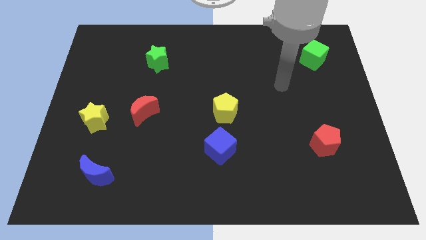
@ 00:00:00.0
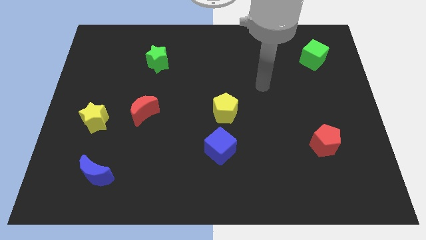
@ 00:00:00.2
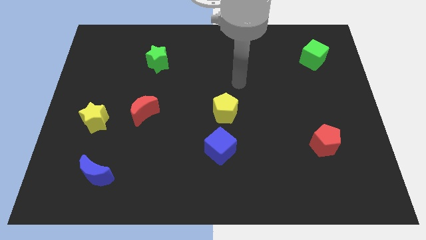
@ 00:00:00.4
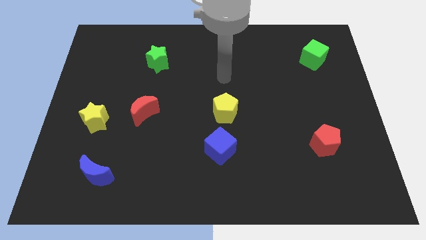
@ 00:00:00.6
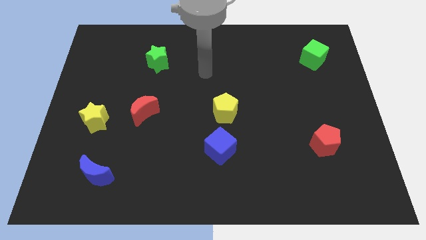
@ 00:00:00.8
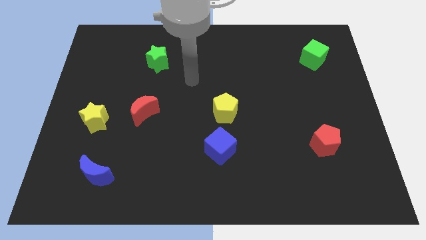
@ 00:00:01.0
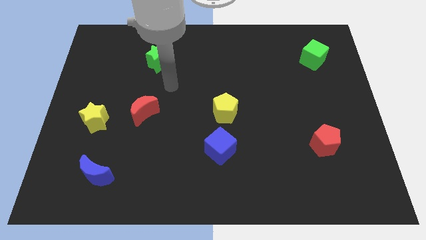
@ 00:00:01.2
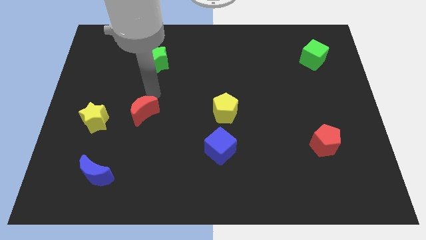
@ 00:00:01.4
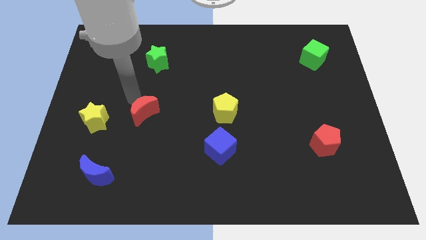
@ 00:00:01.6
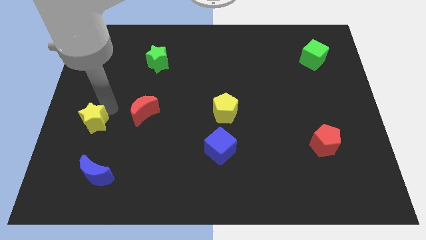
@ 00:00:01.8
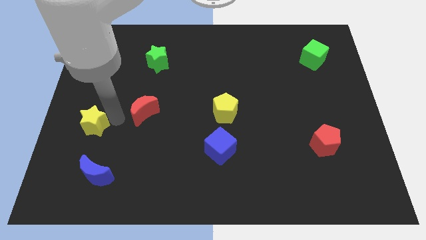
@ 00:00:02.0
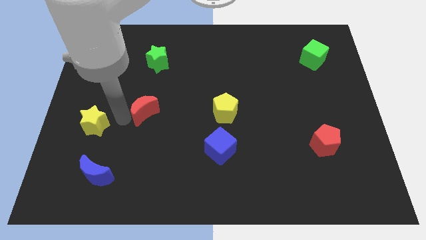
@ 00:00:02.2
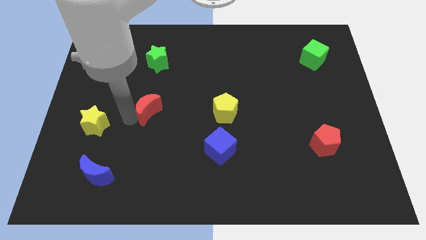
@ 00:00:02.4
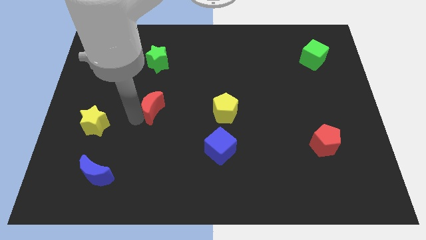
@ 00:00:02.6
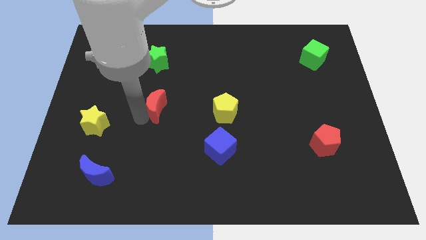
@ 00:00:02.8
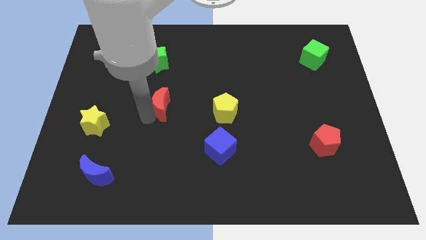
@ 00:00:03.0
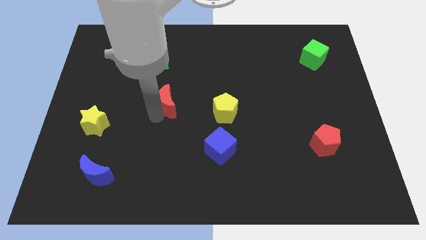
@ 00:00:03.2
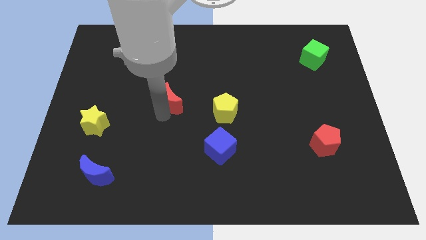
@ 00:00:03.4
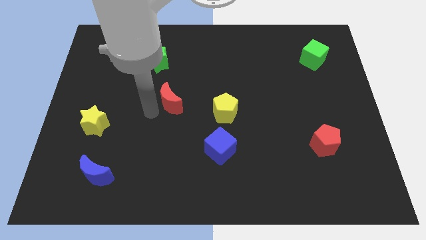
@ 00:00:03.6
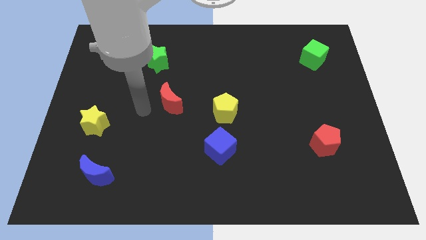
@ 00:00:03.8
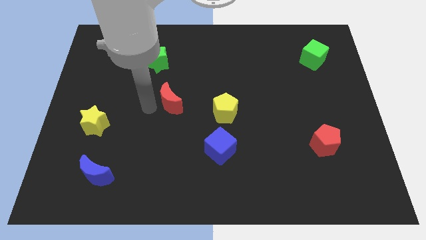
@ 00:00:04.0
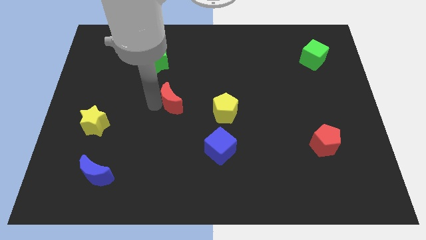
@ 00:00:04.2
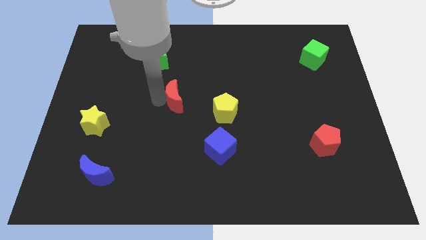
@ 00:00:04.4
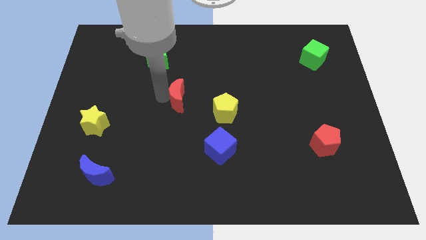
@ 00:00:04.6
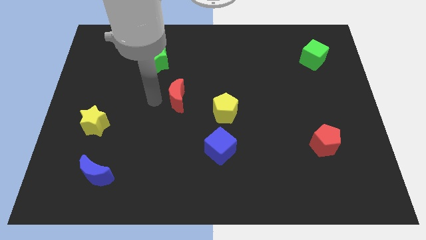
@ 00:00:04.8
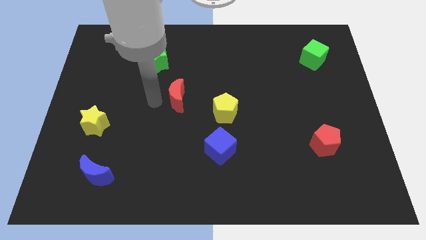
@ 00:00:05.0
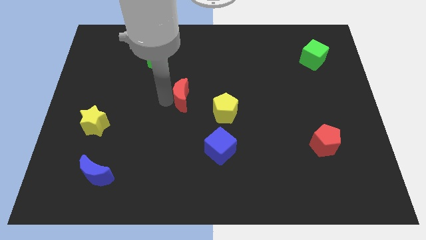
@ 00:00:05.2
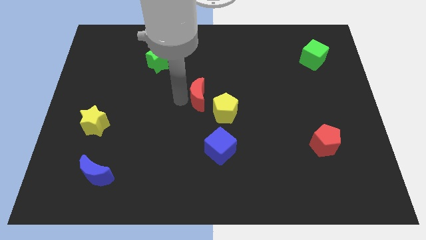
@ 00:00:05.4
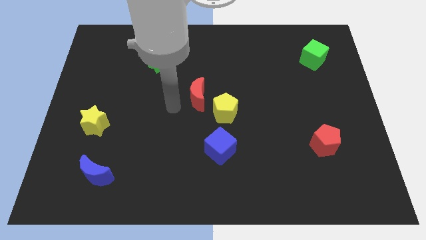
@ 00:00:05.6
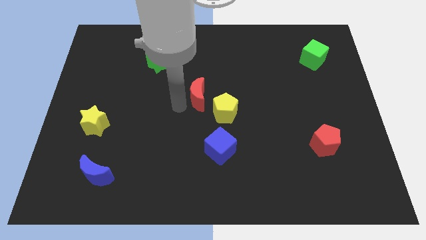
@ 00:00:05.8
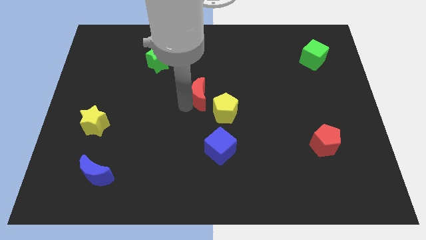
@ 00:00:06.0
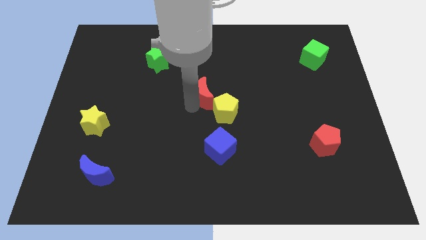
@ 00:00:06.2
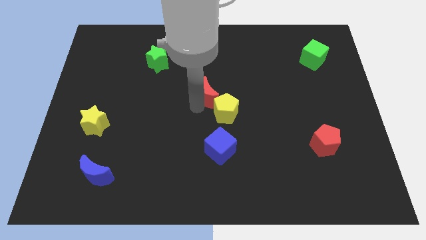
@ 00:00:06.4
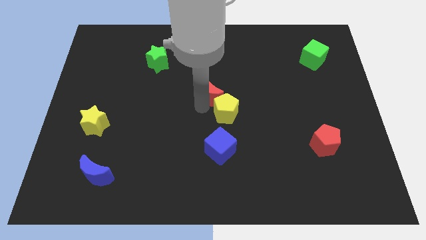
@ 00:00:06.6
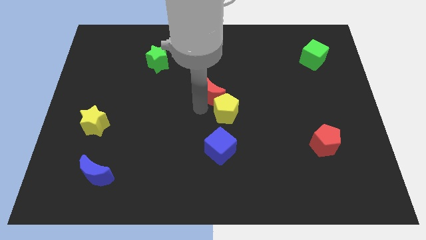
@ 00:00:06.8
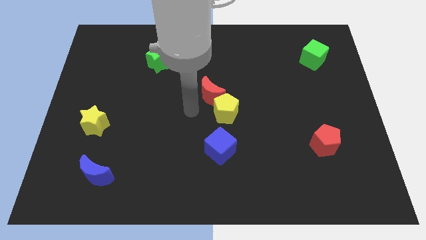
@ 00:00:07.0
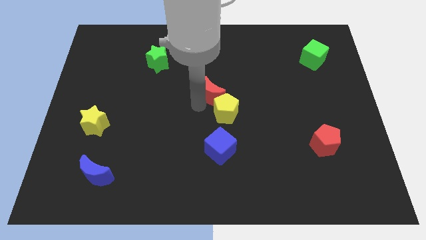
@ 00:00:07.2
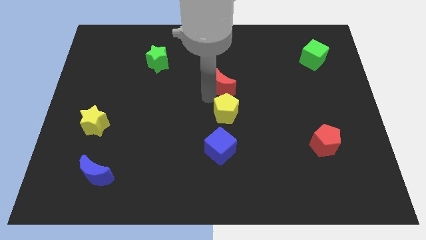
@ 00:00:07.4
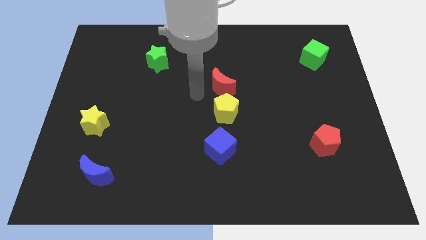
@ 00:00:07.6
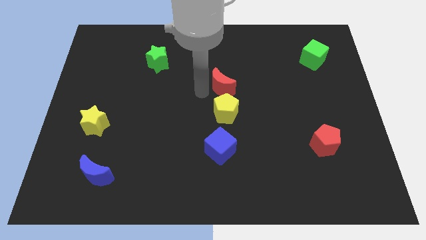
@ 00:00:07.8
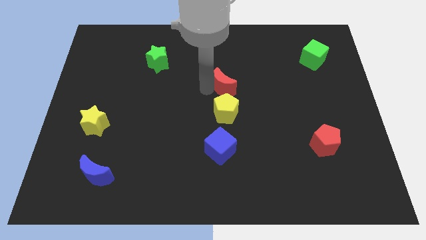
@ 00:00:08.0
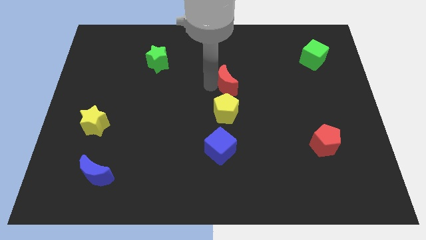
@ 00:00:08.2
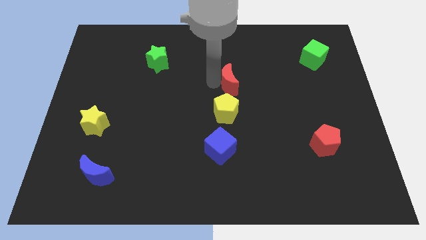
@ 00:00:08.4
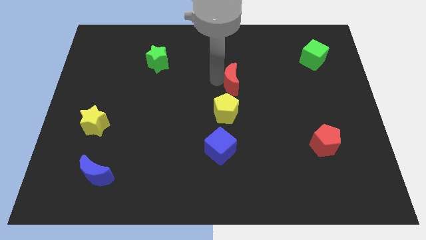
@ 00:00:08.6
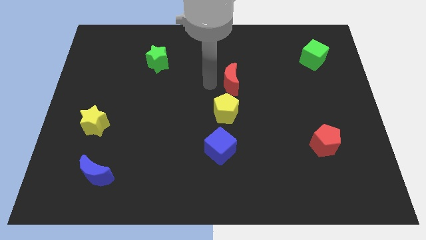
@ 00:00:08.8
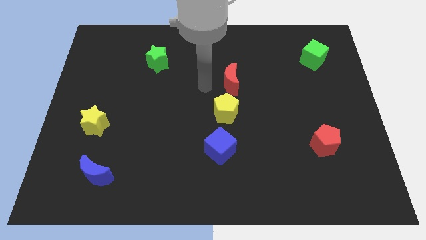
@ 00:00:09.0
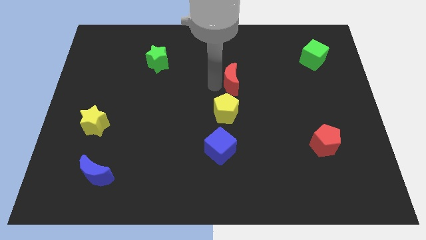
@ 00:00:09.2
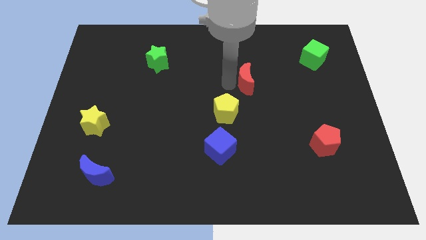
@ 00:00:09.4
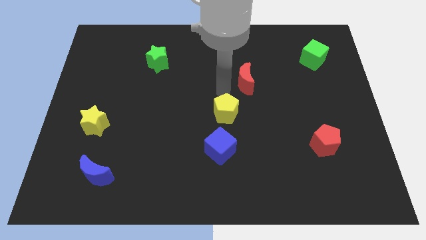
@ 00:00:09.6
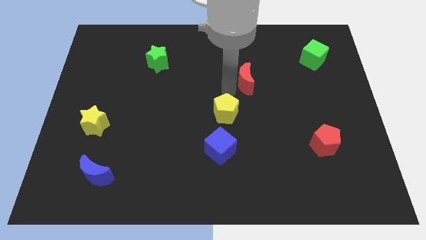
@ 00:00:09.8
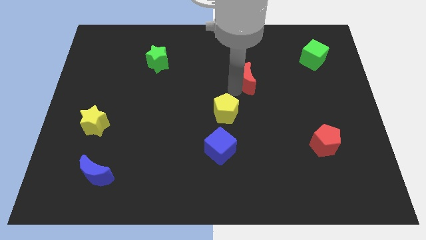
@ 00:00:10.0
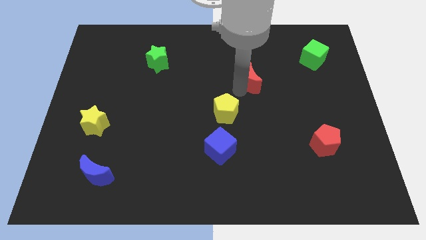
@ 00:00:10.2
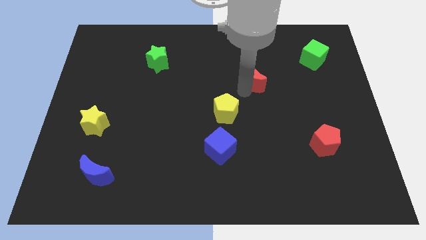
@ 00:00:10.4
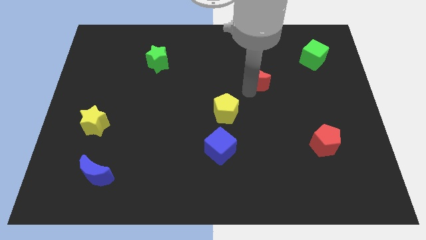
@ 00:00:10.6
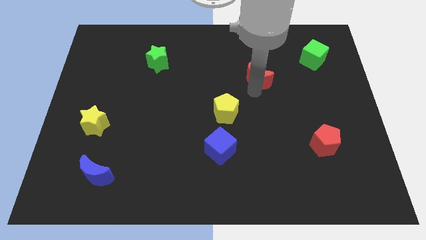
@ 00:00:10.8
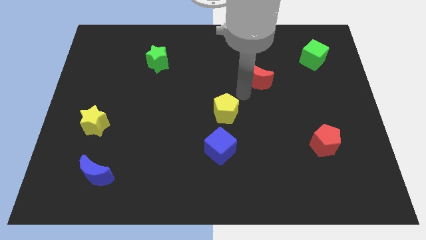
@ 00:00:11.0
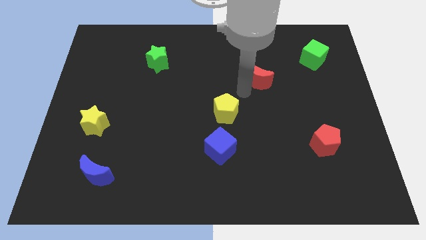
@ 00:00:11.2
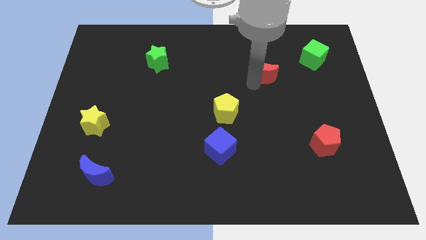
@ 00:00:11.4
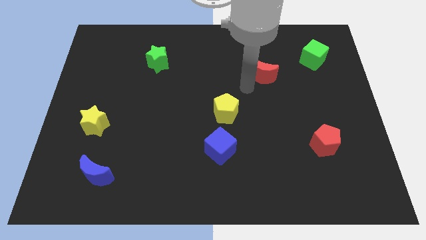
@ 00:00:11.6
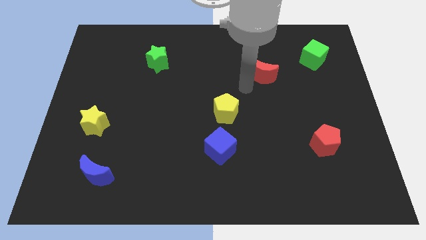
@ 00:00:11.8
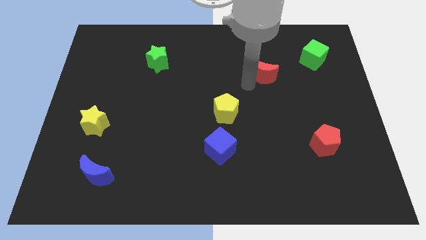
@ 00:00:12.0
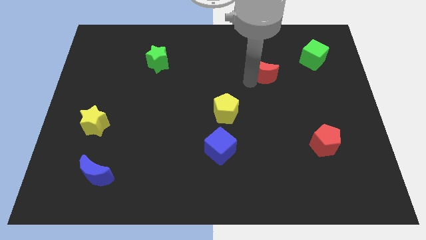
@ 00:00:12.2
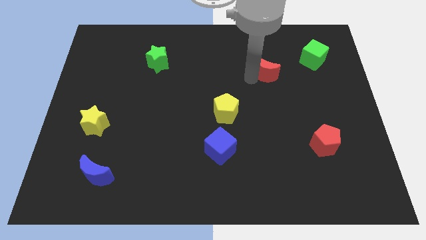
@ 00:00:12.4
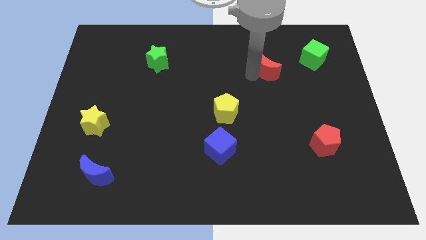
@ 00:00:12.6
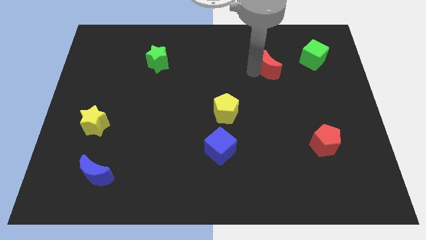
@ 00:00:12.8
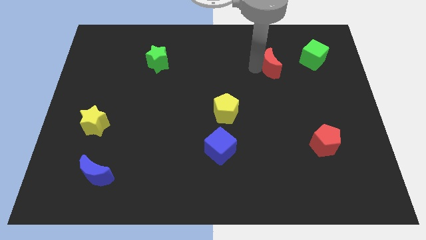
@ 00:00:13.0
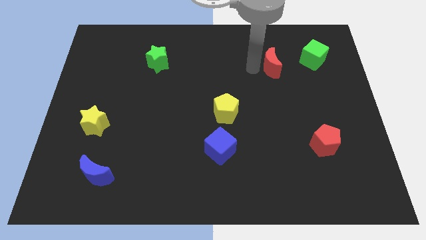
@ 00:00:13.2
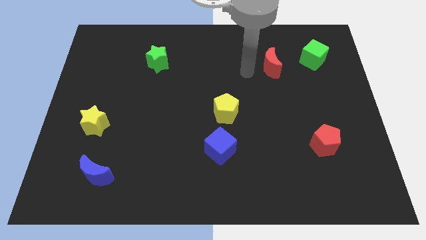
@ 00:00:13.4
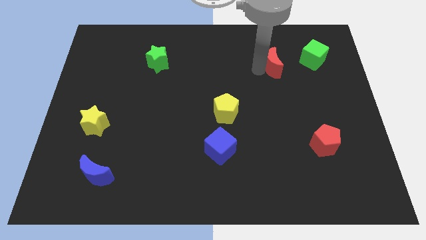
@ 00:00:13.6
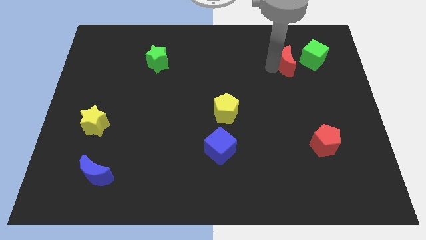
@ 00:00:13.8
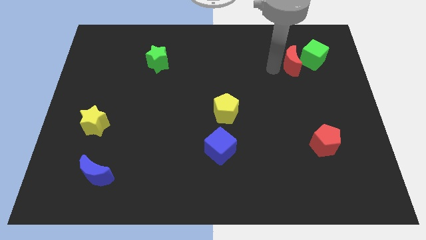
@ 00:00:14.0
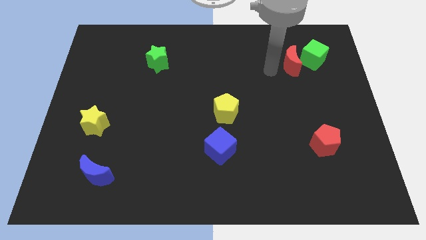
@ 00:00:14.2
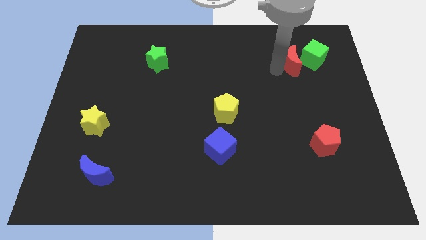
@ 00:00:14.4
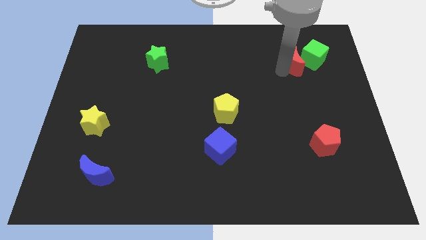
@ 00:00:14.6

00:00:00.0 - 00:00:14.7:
slide the red moon close to the green cube

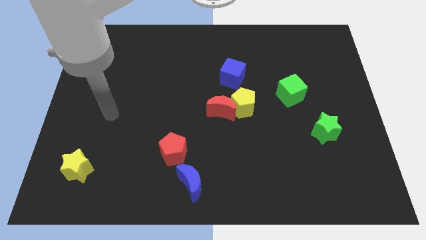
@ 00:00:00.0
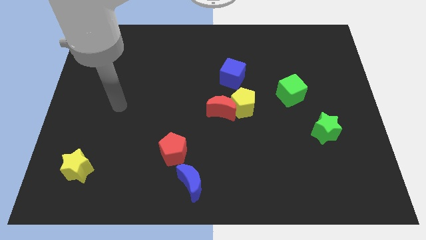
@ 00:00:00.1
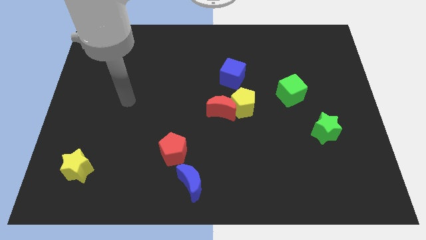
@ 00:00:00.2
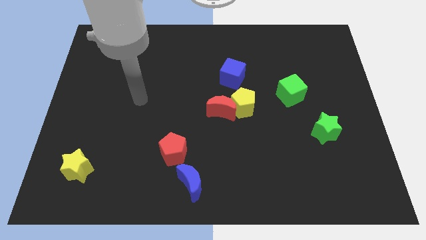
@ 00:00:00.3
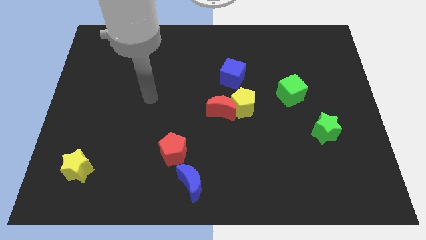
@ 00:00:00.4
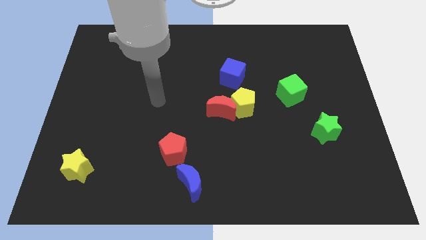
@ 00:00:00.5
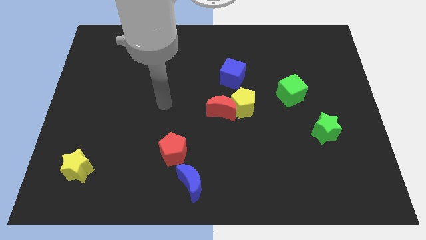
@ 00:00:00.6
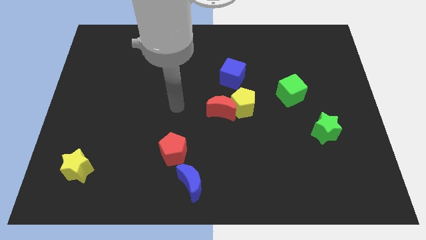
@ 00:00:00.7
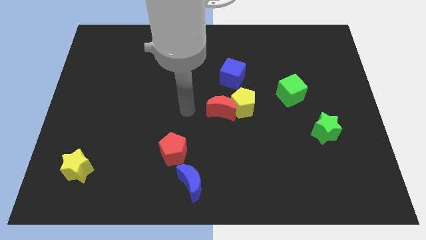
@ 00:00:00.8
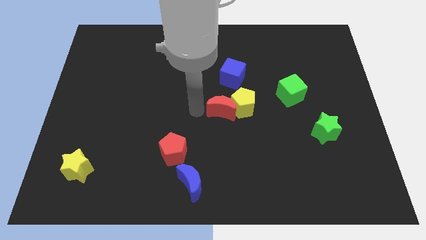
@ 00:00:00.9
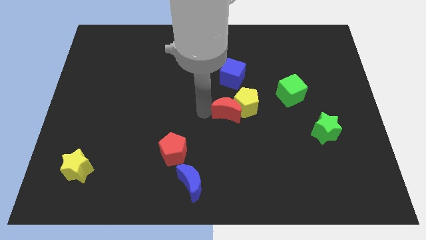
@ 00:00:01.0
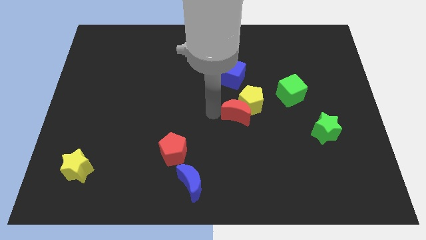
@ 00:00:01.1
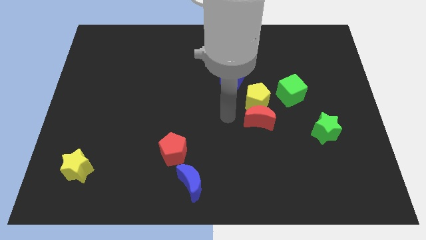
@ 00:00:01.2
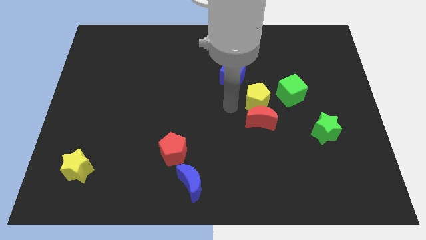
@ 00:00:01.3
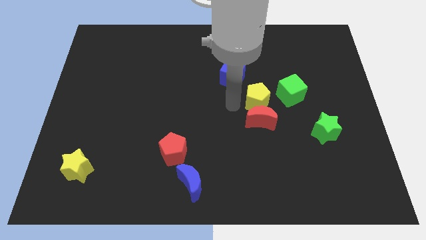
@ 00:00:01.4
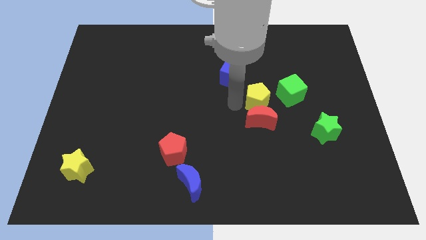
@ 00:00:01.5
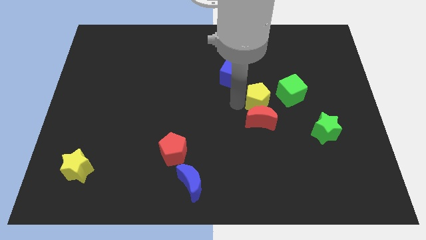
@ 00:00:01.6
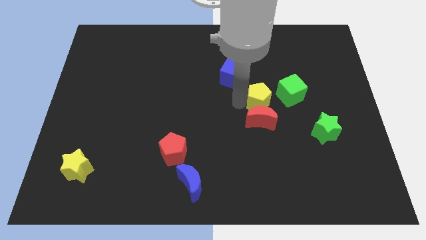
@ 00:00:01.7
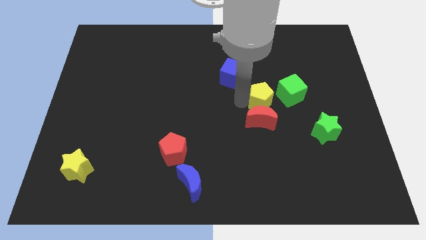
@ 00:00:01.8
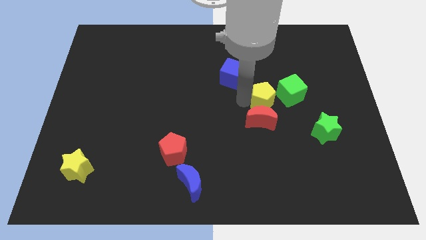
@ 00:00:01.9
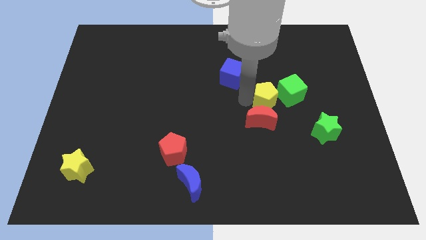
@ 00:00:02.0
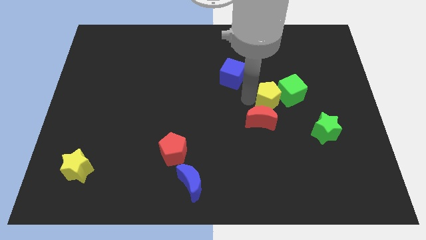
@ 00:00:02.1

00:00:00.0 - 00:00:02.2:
push the yellow pentagon close to the green cube
